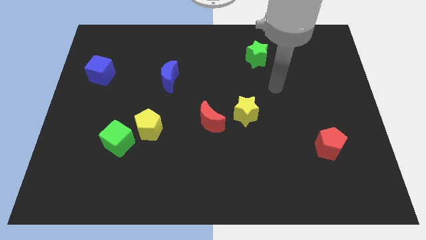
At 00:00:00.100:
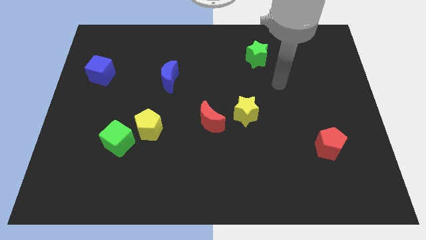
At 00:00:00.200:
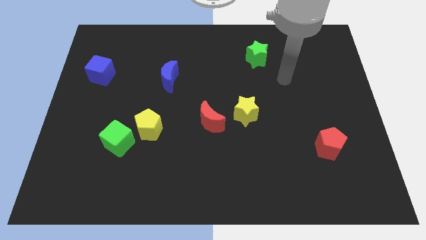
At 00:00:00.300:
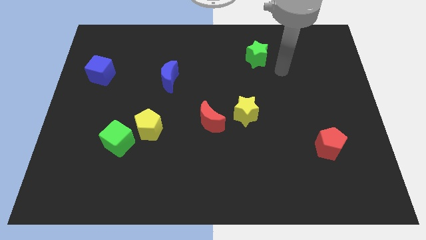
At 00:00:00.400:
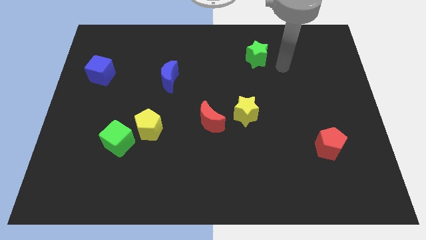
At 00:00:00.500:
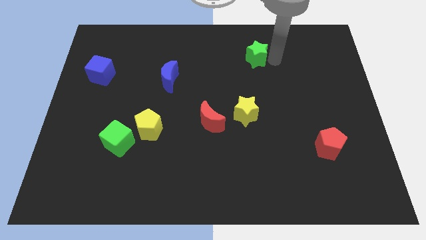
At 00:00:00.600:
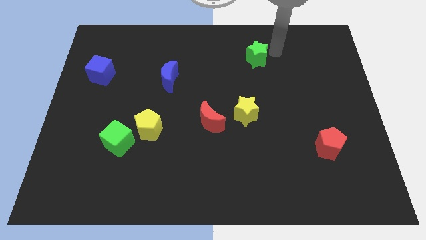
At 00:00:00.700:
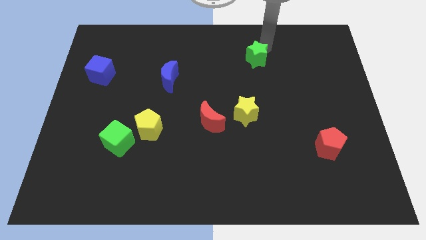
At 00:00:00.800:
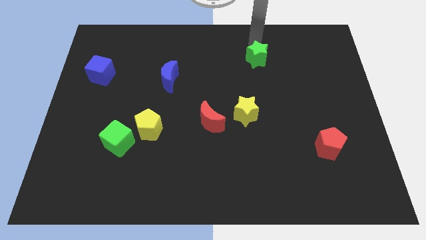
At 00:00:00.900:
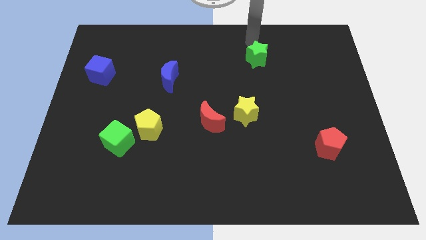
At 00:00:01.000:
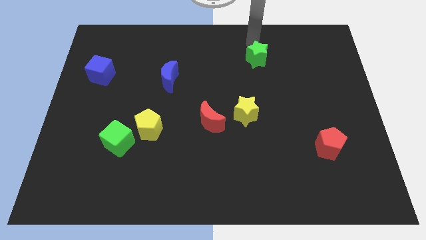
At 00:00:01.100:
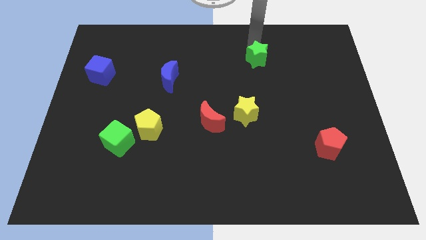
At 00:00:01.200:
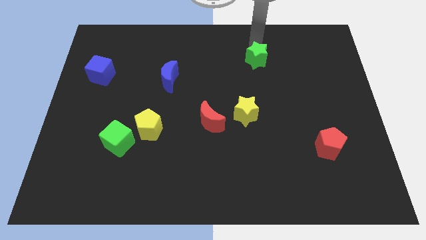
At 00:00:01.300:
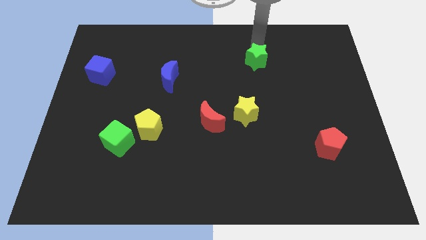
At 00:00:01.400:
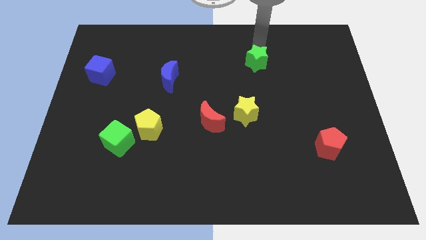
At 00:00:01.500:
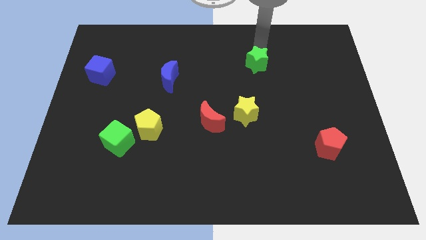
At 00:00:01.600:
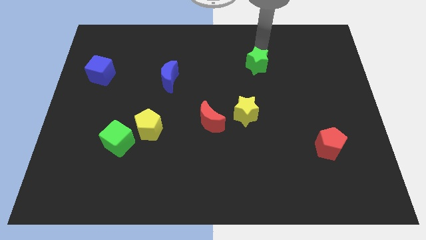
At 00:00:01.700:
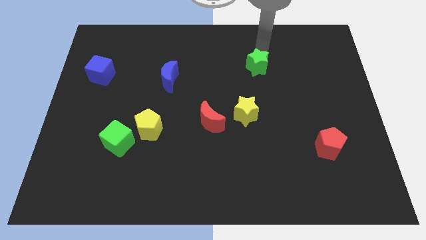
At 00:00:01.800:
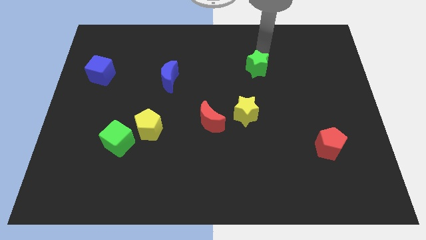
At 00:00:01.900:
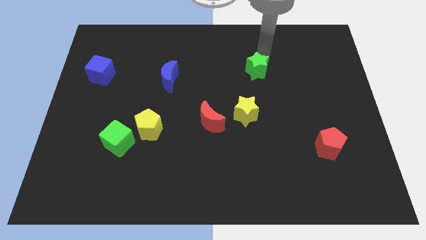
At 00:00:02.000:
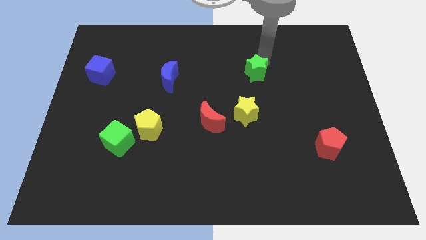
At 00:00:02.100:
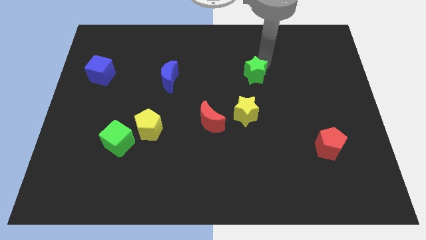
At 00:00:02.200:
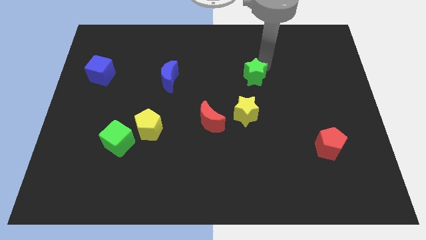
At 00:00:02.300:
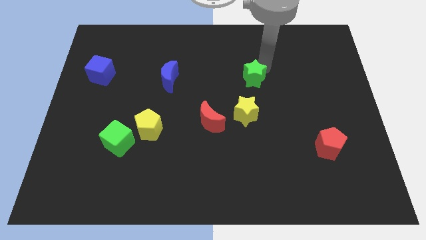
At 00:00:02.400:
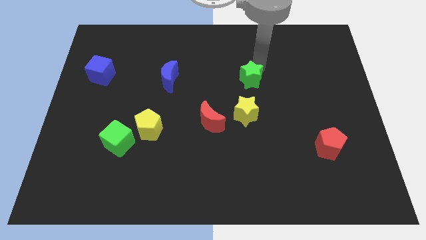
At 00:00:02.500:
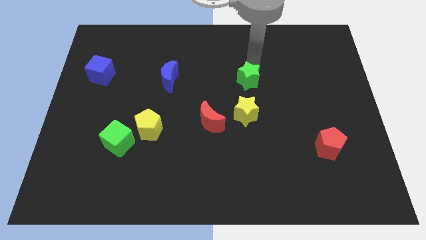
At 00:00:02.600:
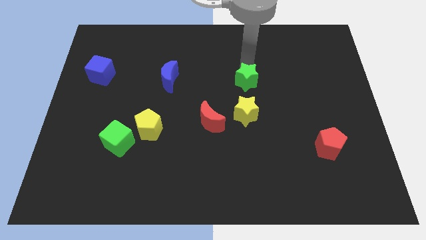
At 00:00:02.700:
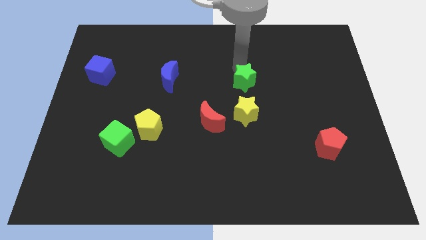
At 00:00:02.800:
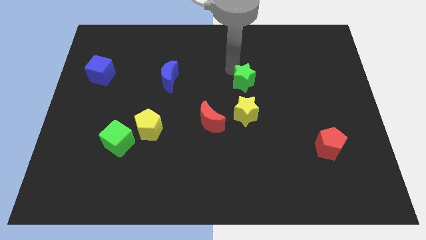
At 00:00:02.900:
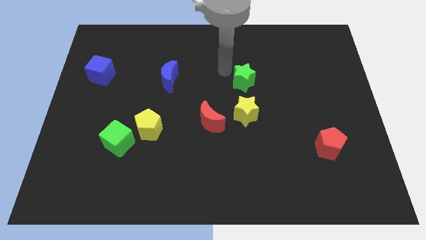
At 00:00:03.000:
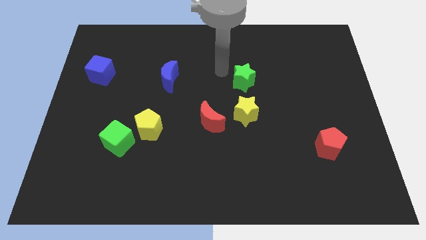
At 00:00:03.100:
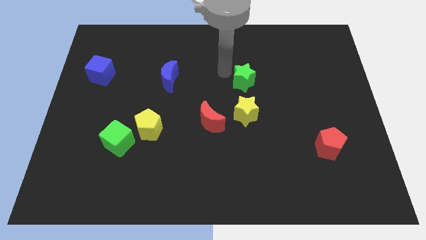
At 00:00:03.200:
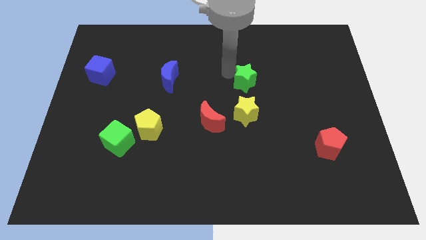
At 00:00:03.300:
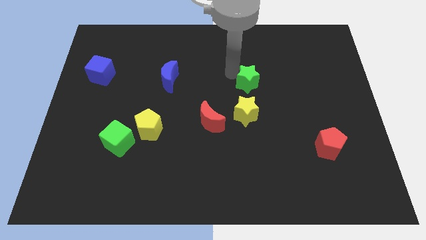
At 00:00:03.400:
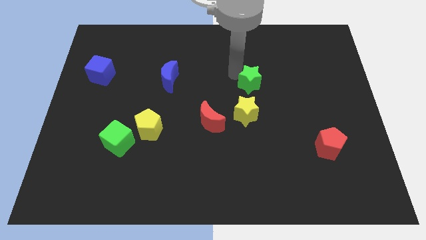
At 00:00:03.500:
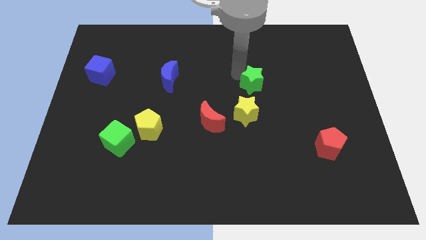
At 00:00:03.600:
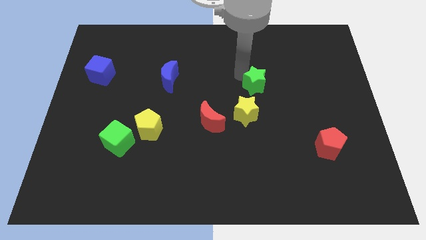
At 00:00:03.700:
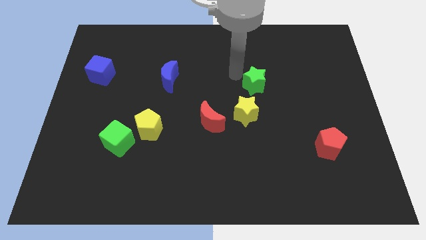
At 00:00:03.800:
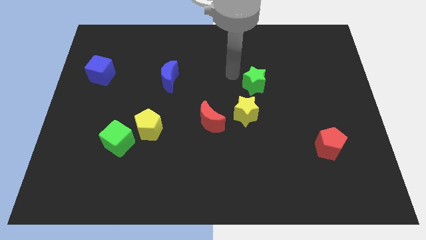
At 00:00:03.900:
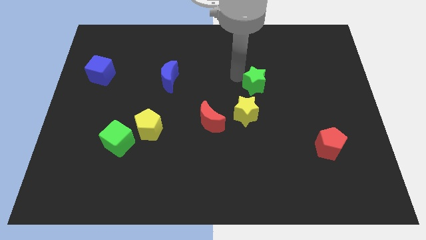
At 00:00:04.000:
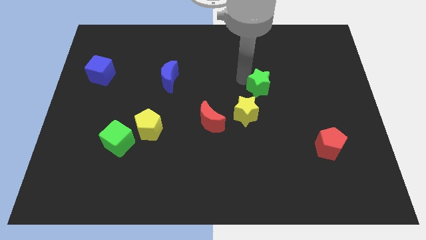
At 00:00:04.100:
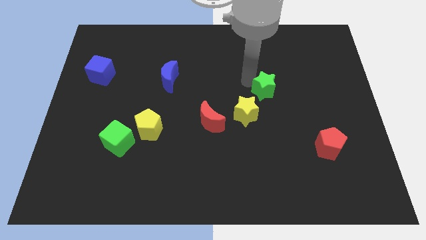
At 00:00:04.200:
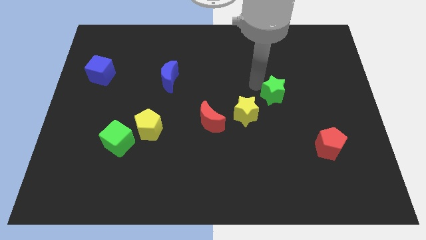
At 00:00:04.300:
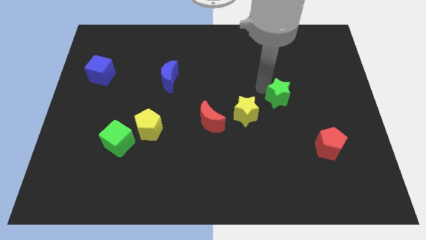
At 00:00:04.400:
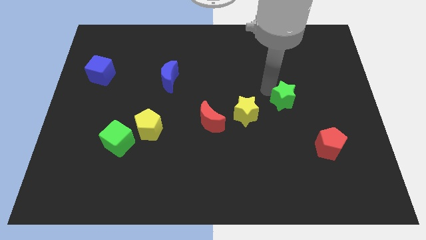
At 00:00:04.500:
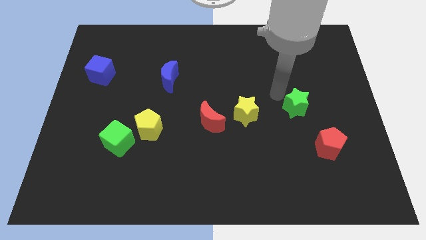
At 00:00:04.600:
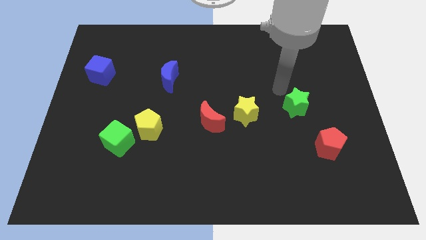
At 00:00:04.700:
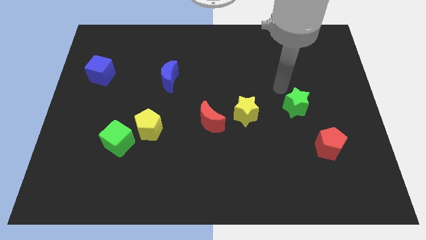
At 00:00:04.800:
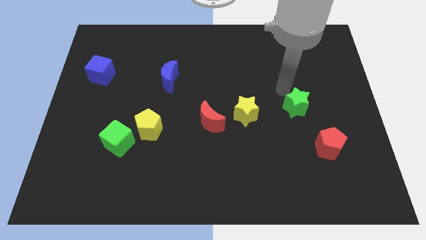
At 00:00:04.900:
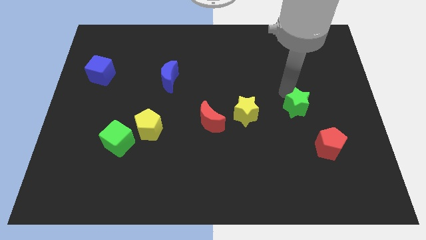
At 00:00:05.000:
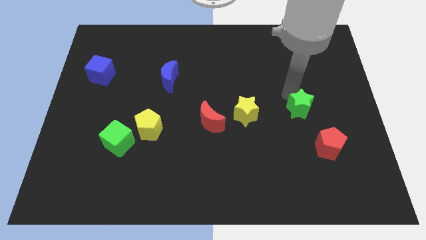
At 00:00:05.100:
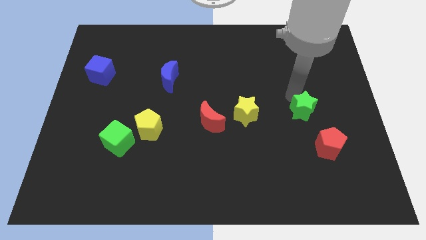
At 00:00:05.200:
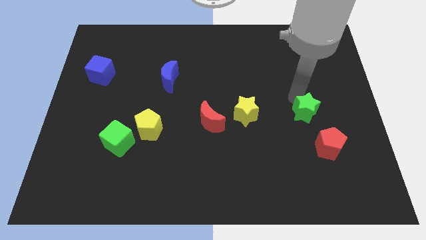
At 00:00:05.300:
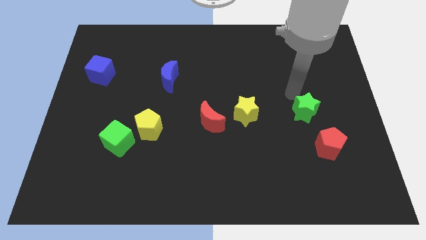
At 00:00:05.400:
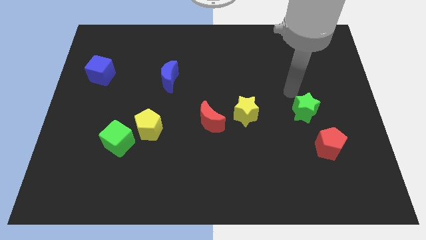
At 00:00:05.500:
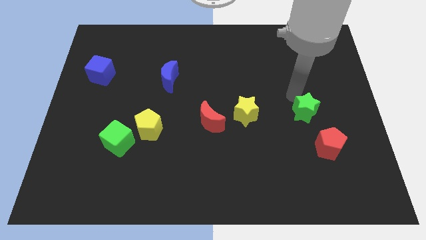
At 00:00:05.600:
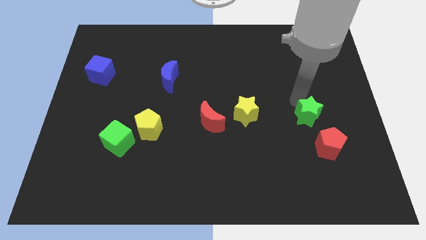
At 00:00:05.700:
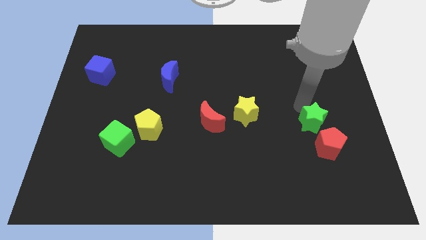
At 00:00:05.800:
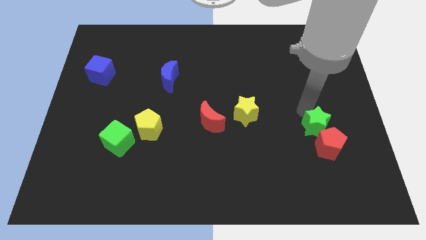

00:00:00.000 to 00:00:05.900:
push the green star to the red pentagon

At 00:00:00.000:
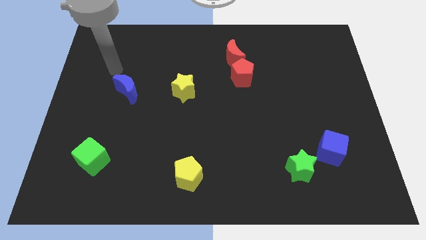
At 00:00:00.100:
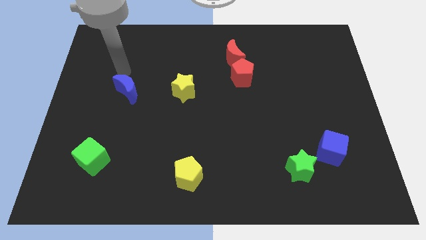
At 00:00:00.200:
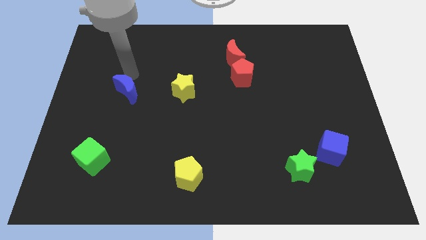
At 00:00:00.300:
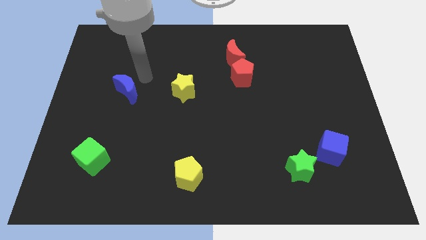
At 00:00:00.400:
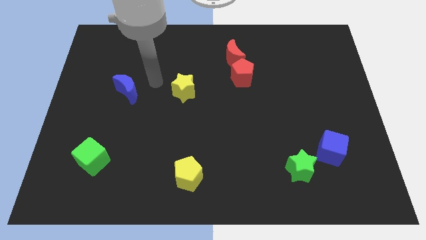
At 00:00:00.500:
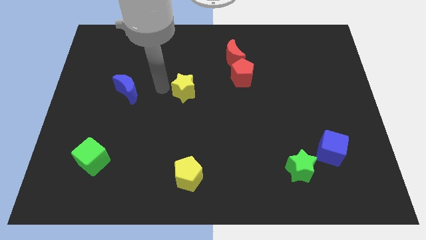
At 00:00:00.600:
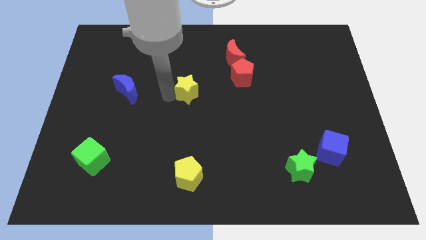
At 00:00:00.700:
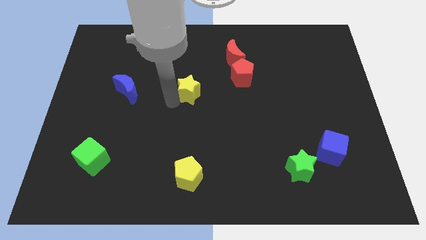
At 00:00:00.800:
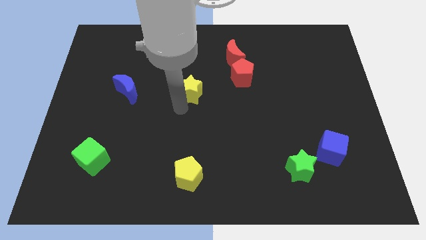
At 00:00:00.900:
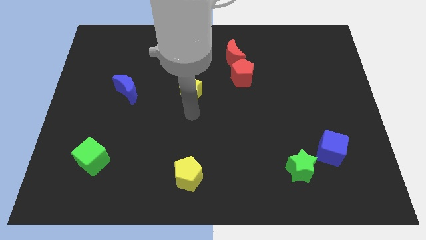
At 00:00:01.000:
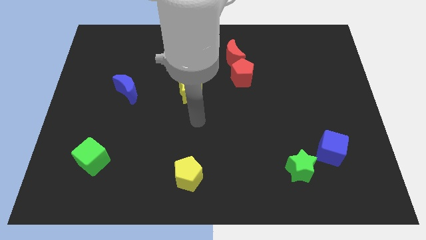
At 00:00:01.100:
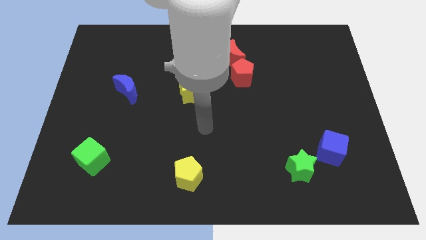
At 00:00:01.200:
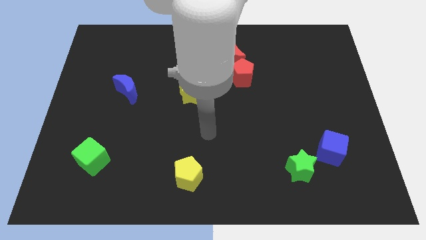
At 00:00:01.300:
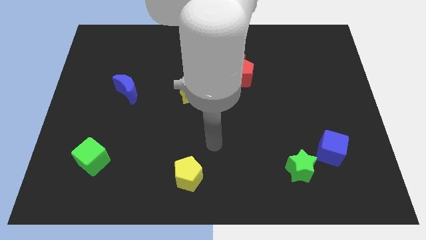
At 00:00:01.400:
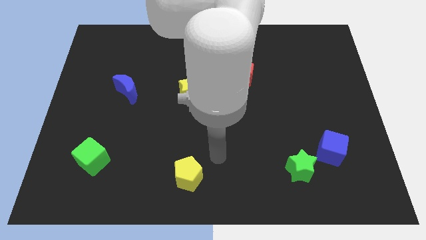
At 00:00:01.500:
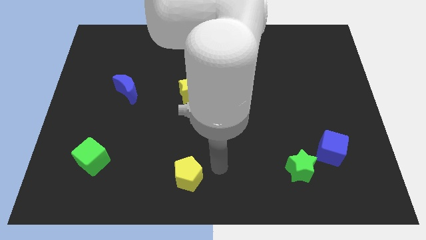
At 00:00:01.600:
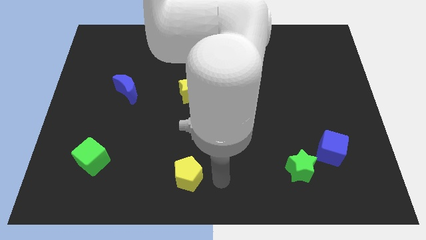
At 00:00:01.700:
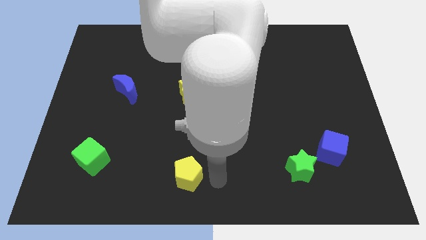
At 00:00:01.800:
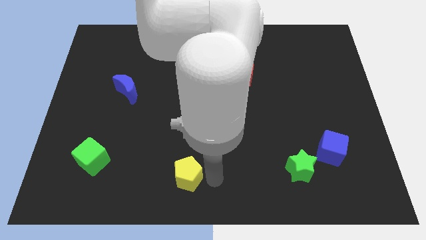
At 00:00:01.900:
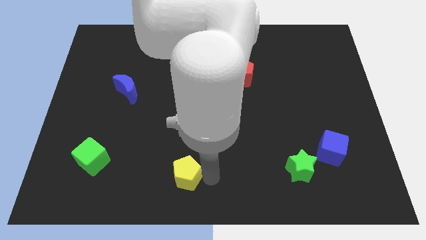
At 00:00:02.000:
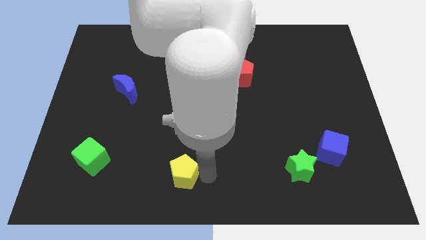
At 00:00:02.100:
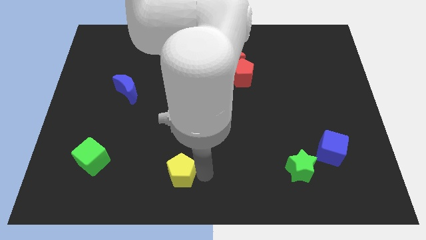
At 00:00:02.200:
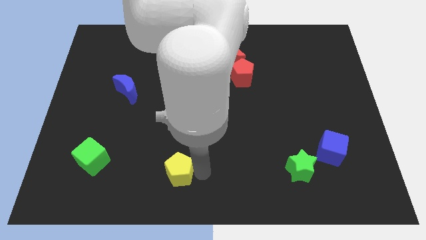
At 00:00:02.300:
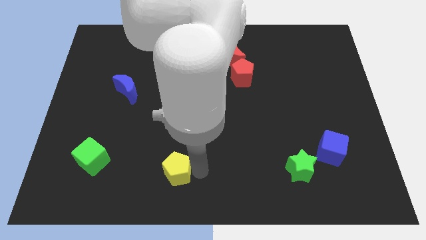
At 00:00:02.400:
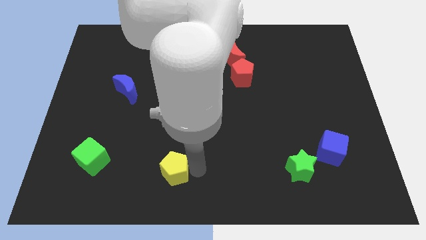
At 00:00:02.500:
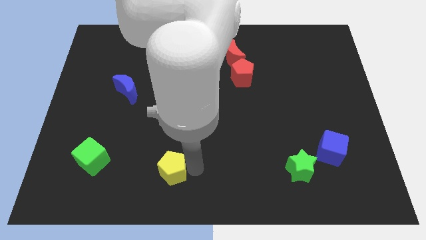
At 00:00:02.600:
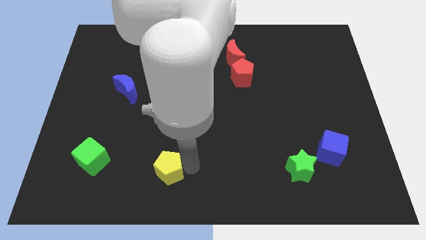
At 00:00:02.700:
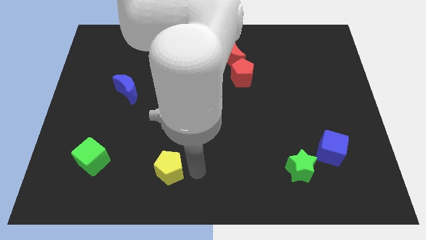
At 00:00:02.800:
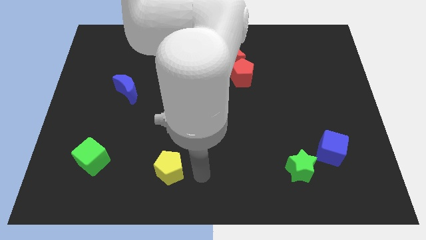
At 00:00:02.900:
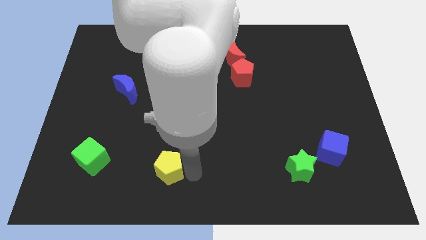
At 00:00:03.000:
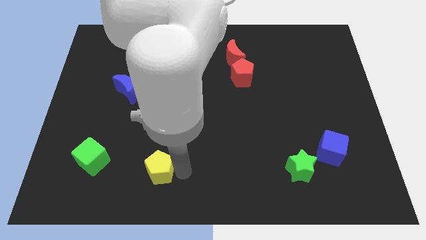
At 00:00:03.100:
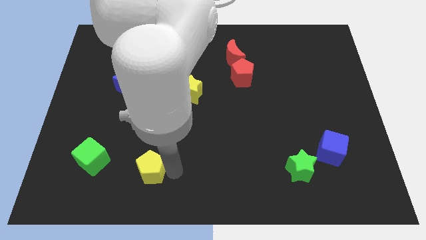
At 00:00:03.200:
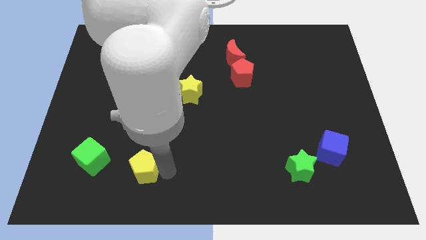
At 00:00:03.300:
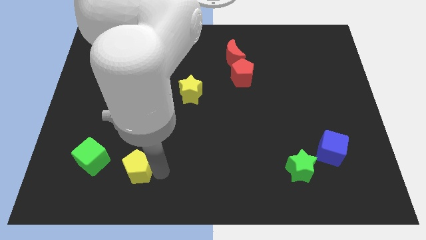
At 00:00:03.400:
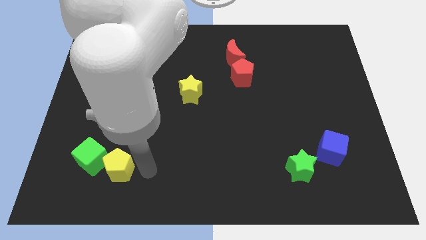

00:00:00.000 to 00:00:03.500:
push the yellow pentagon towards the green cube
